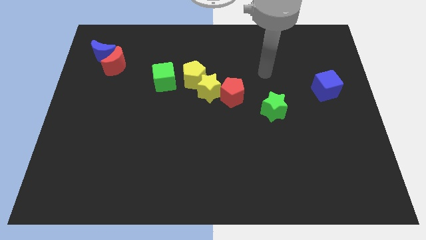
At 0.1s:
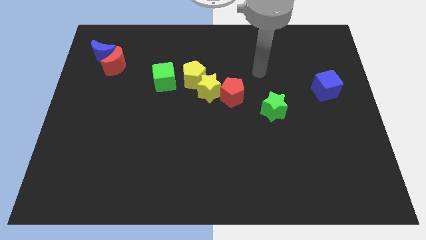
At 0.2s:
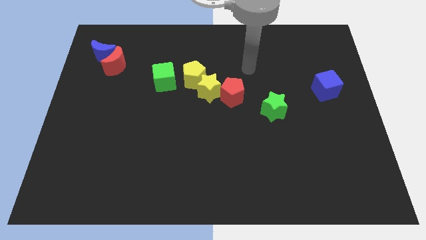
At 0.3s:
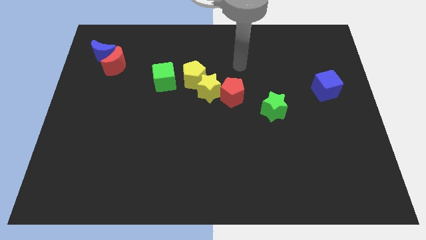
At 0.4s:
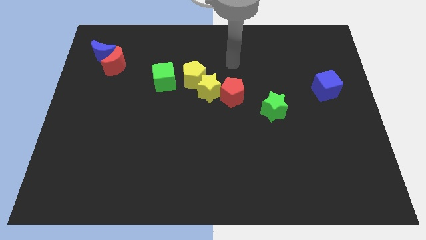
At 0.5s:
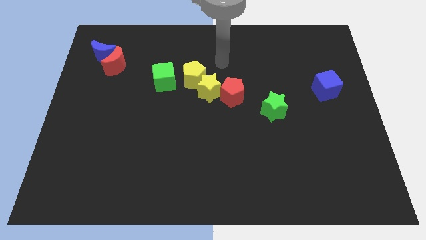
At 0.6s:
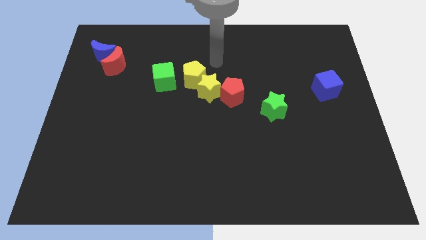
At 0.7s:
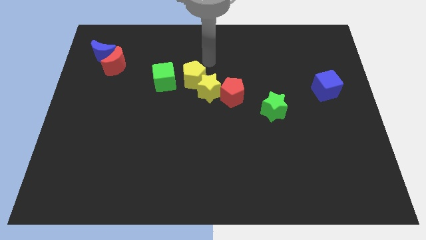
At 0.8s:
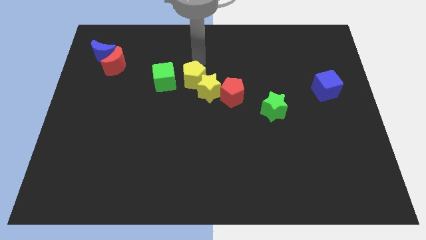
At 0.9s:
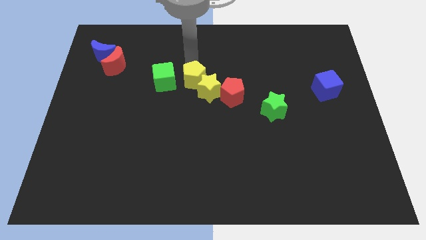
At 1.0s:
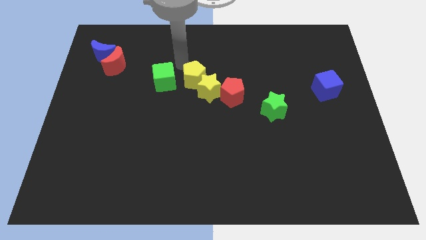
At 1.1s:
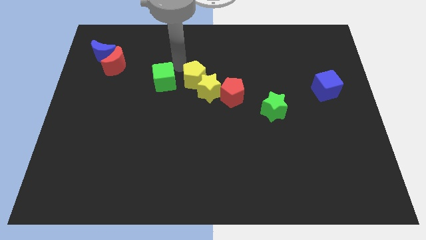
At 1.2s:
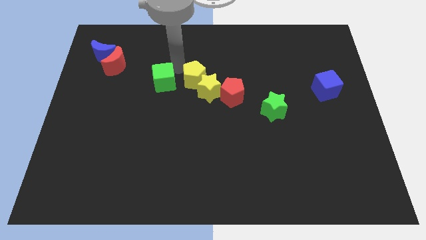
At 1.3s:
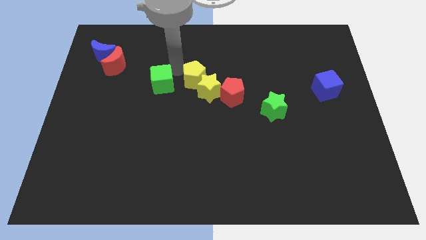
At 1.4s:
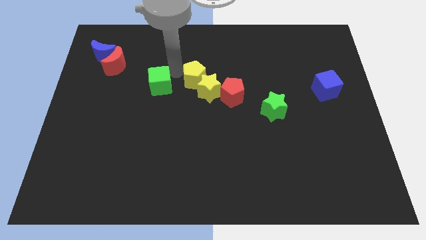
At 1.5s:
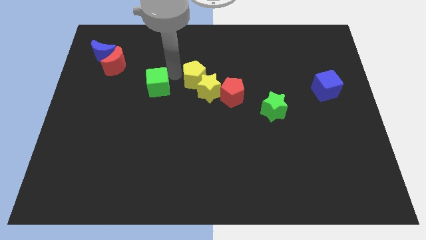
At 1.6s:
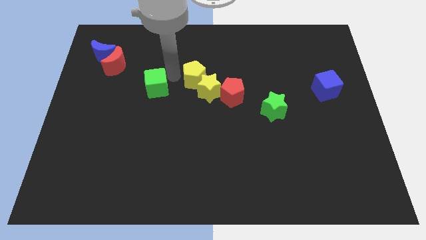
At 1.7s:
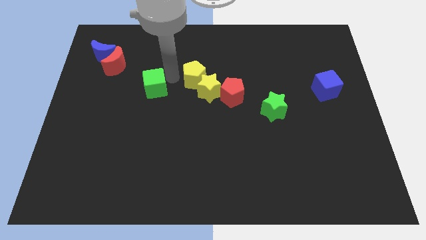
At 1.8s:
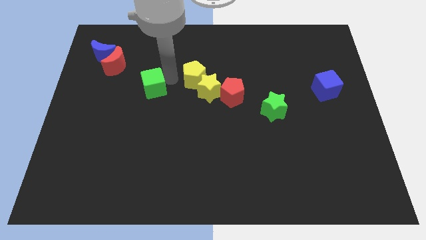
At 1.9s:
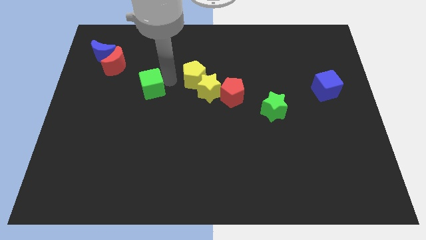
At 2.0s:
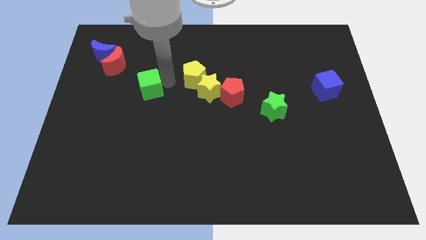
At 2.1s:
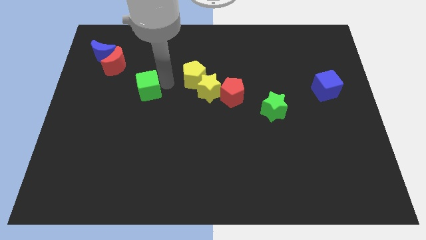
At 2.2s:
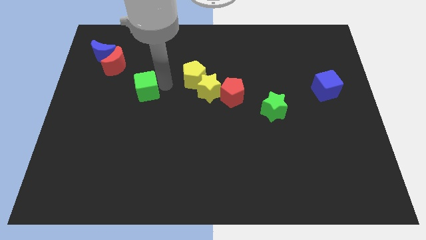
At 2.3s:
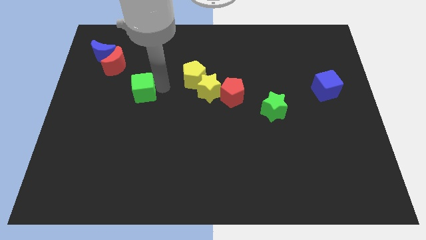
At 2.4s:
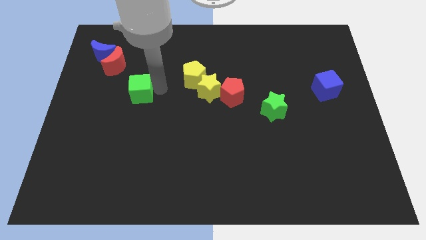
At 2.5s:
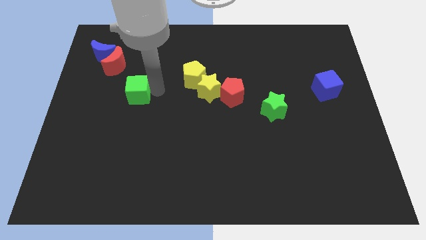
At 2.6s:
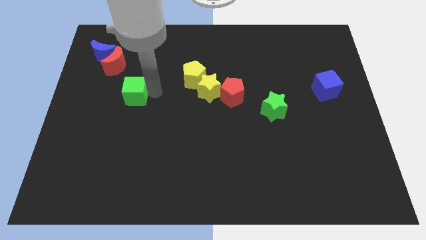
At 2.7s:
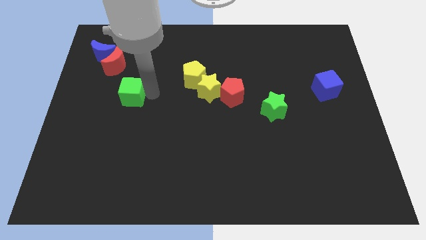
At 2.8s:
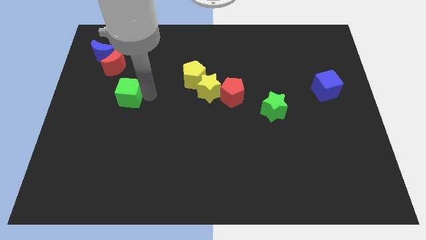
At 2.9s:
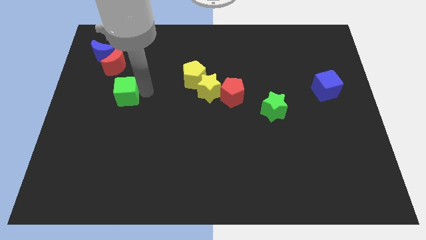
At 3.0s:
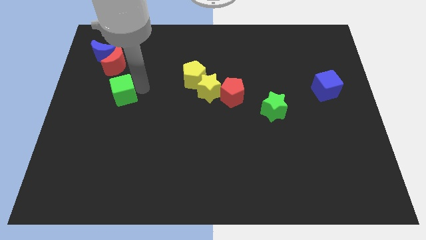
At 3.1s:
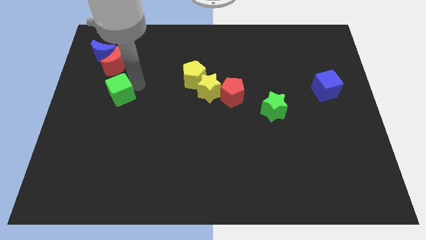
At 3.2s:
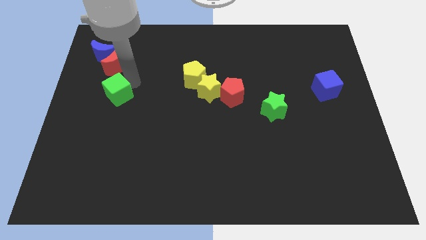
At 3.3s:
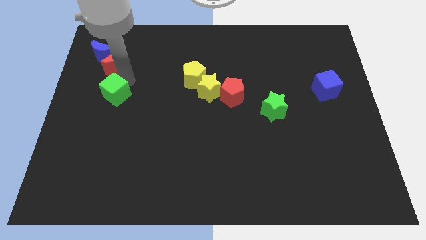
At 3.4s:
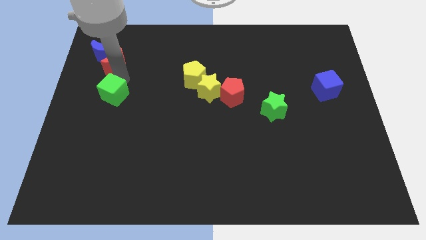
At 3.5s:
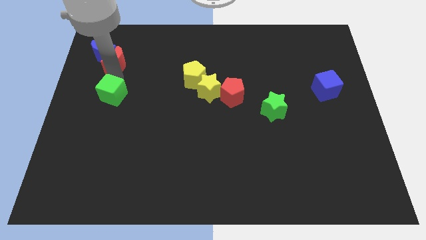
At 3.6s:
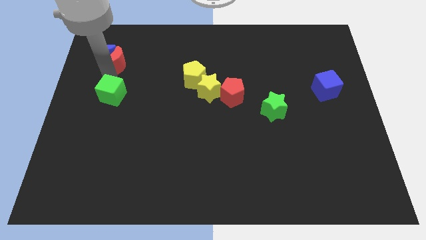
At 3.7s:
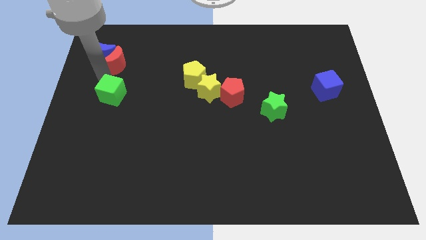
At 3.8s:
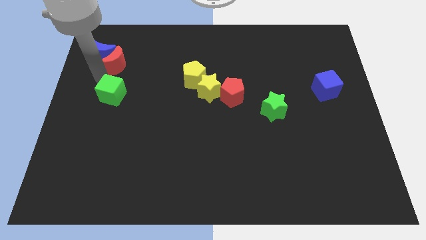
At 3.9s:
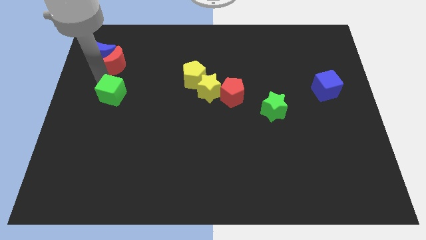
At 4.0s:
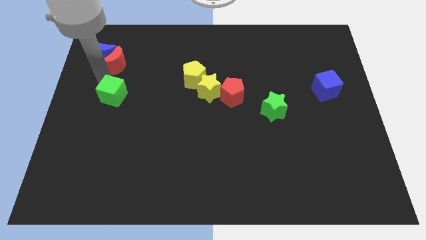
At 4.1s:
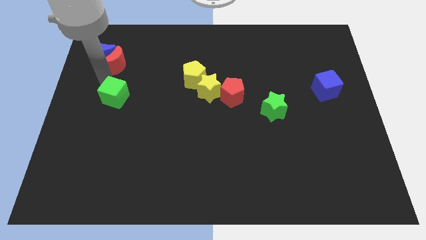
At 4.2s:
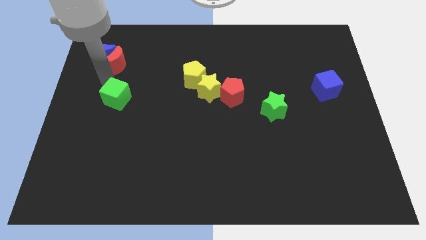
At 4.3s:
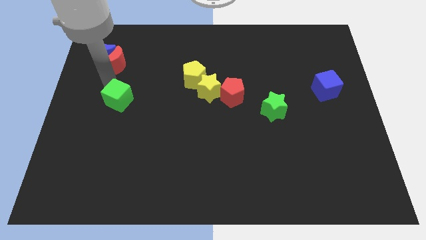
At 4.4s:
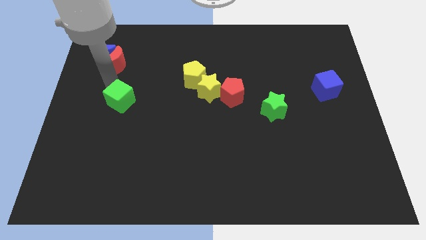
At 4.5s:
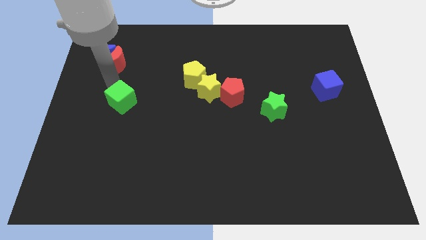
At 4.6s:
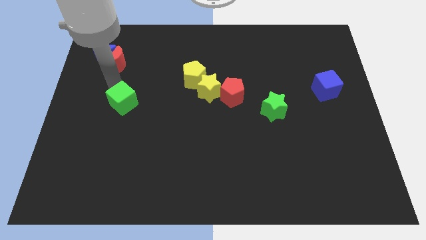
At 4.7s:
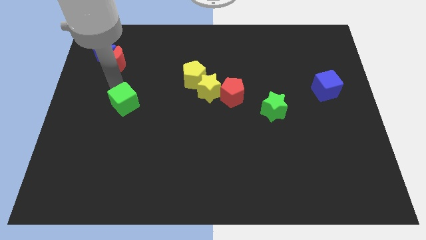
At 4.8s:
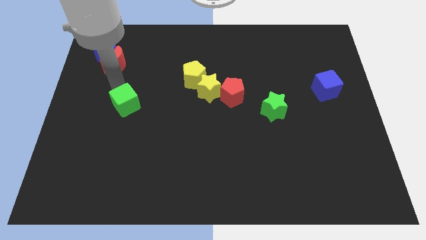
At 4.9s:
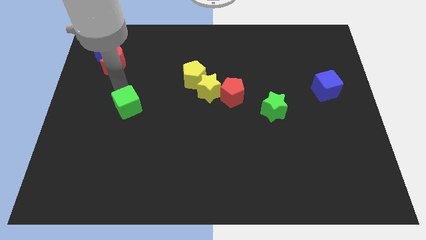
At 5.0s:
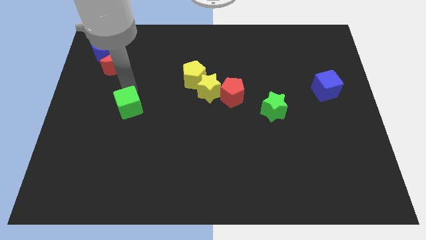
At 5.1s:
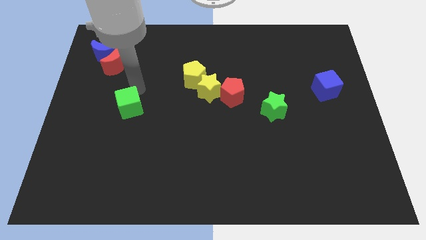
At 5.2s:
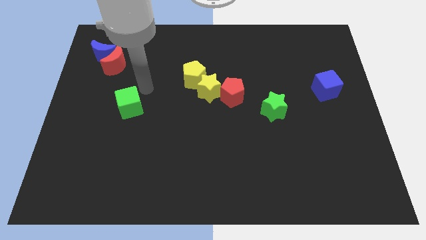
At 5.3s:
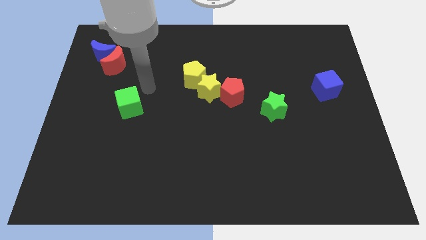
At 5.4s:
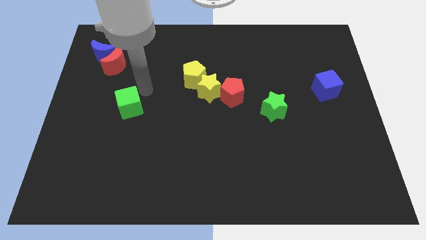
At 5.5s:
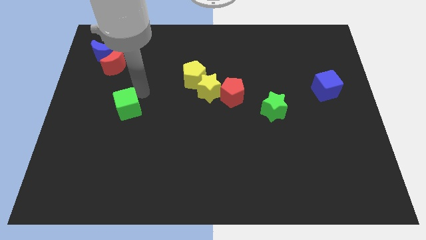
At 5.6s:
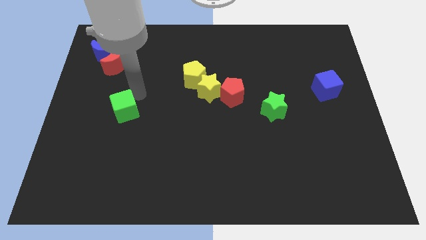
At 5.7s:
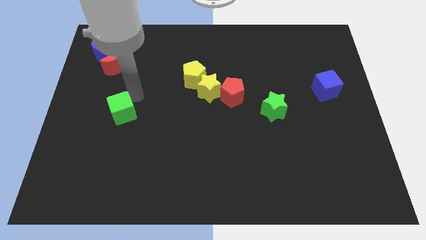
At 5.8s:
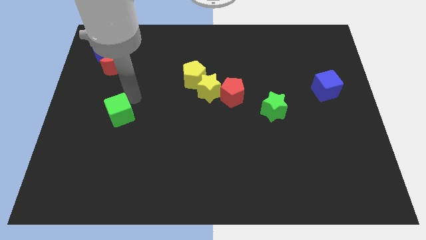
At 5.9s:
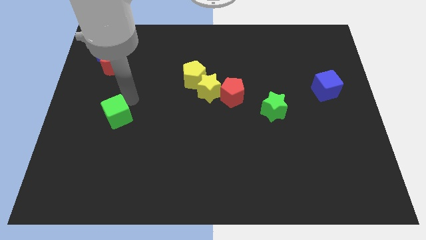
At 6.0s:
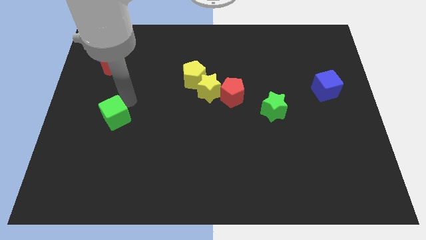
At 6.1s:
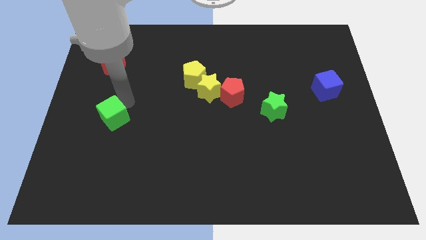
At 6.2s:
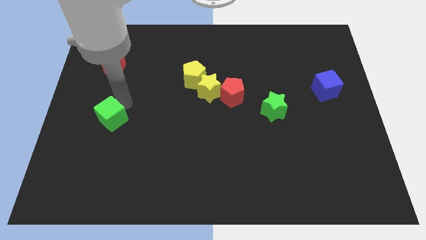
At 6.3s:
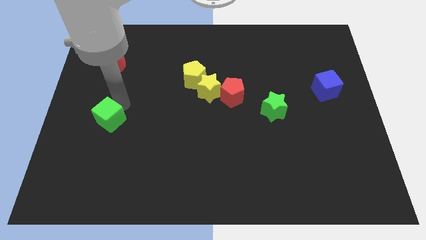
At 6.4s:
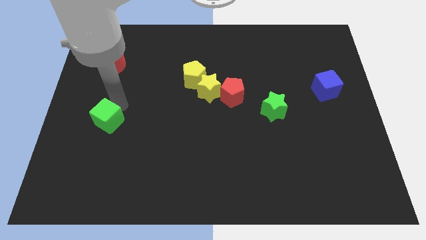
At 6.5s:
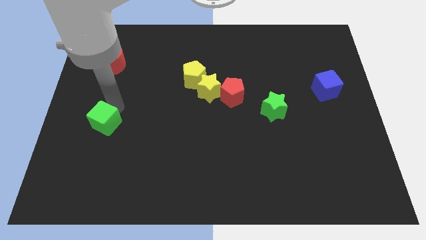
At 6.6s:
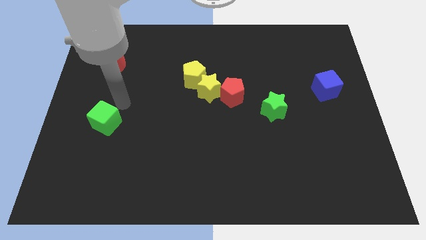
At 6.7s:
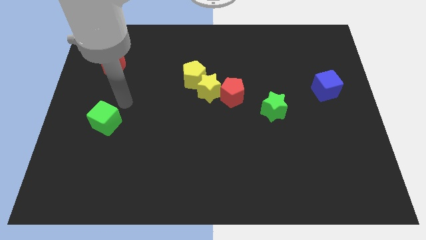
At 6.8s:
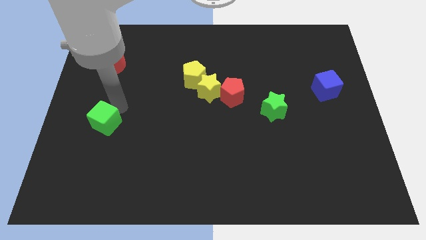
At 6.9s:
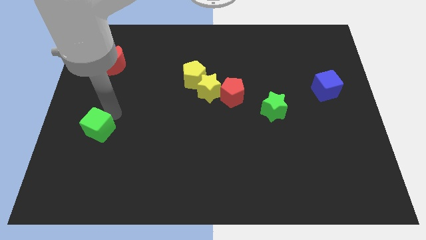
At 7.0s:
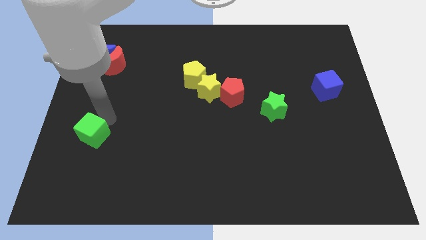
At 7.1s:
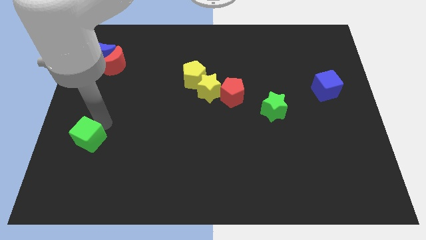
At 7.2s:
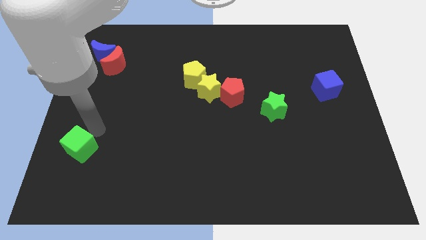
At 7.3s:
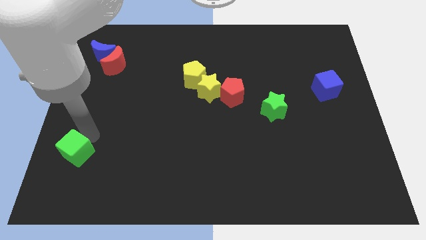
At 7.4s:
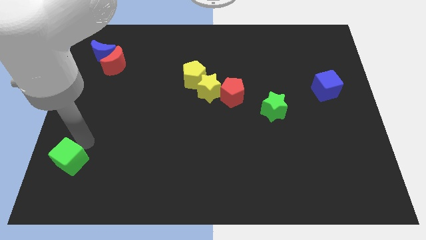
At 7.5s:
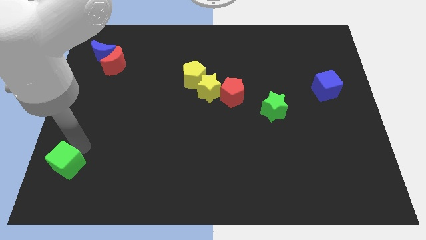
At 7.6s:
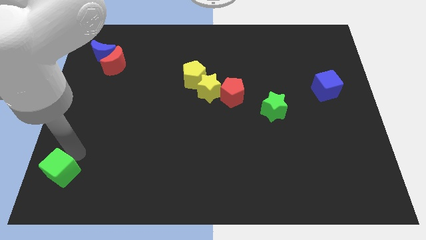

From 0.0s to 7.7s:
push the green cube to the bottom left of the board
